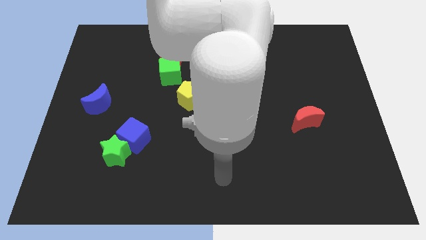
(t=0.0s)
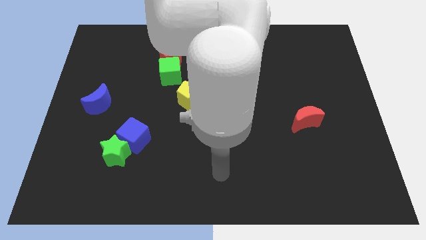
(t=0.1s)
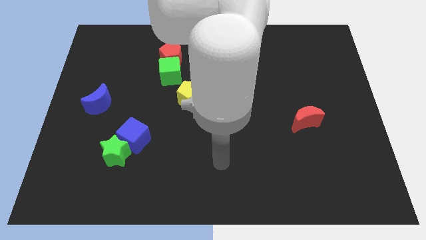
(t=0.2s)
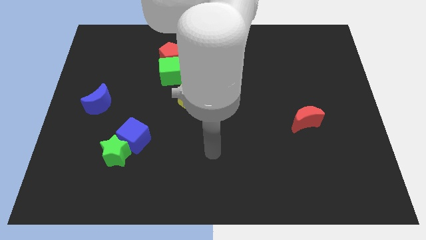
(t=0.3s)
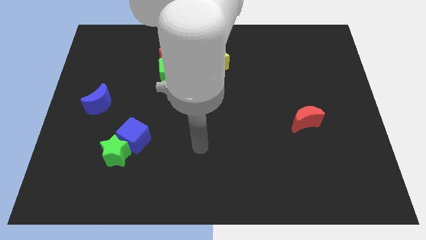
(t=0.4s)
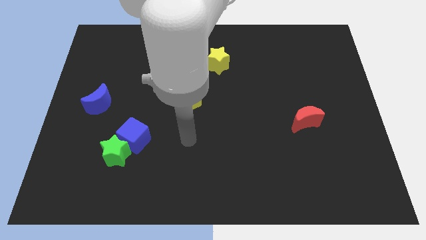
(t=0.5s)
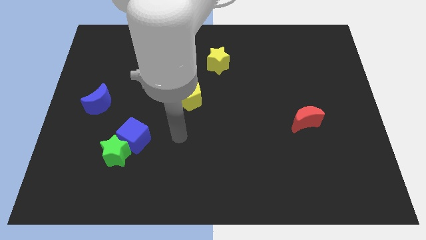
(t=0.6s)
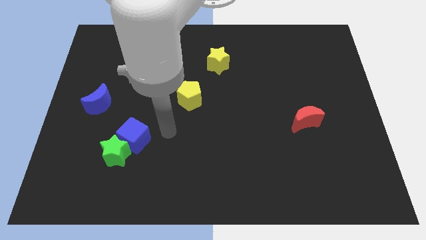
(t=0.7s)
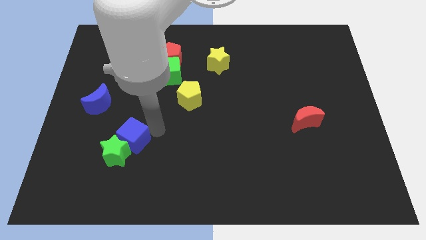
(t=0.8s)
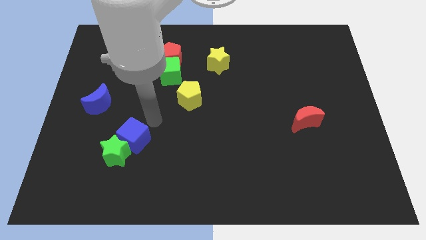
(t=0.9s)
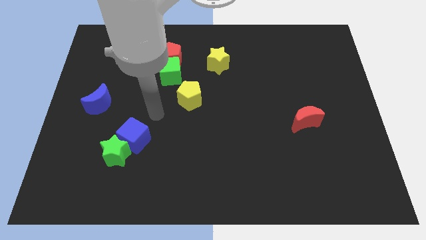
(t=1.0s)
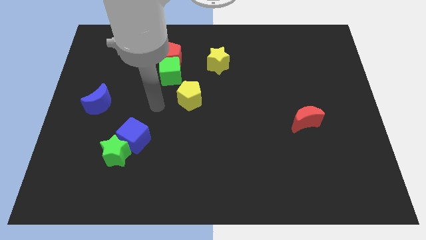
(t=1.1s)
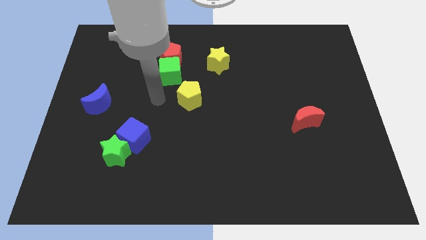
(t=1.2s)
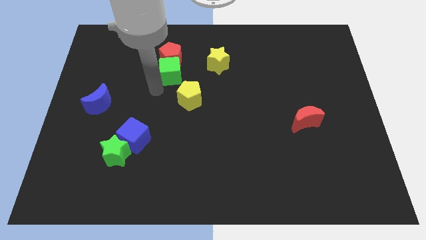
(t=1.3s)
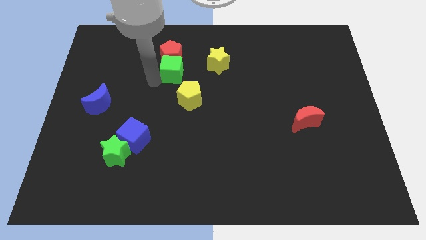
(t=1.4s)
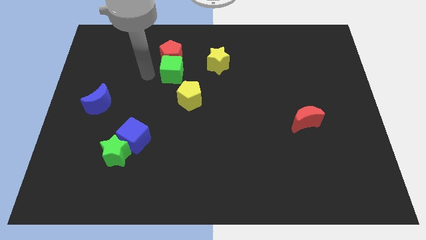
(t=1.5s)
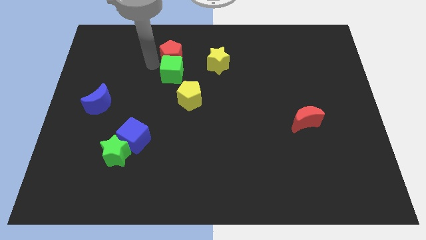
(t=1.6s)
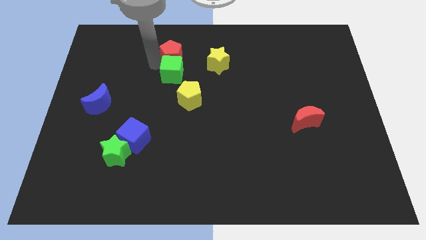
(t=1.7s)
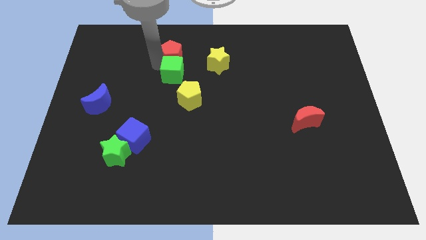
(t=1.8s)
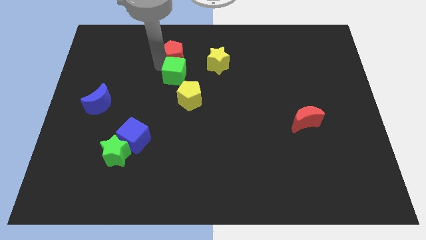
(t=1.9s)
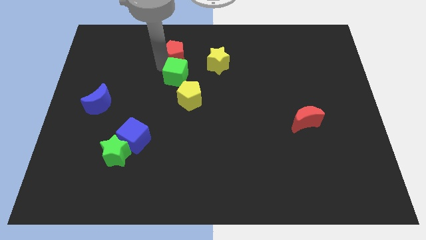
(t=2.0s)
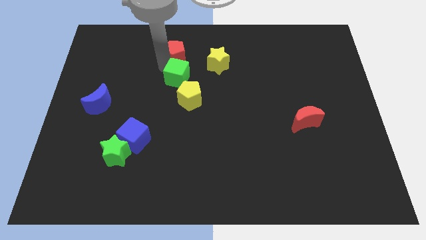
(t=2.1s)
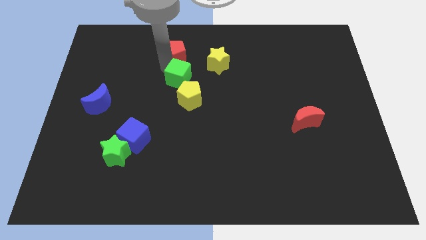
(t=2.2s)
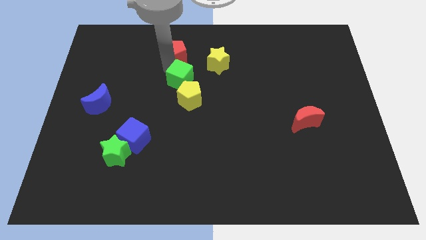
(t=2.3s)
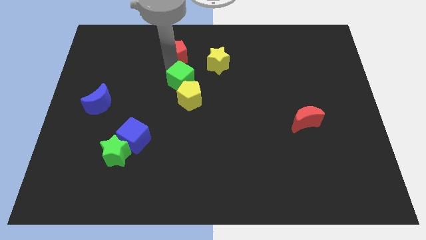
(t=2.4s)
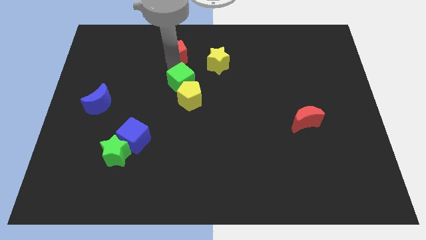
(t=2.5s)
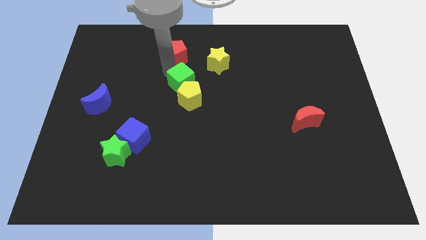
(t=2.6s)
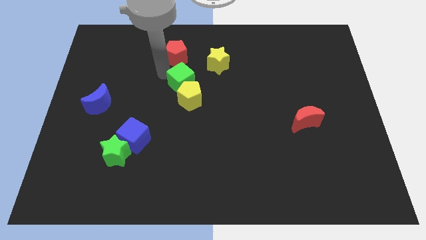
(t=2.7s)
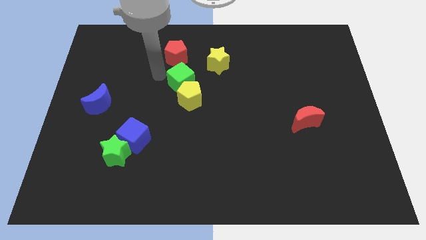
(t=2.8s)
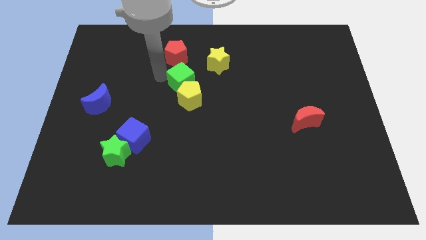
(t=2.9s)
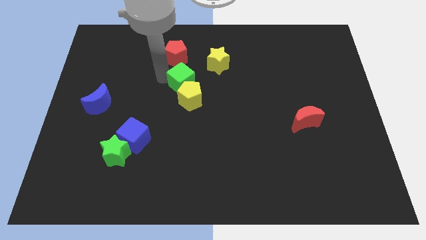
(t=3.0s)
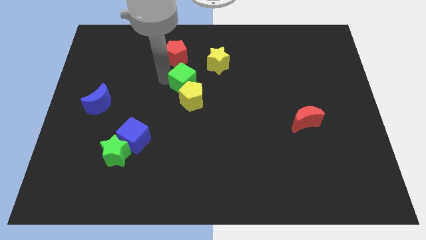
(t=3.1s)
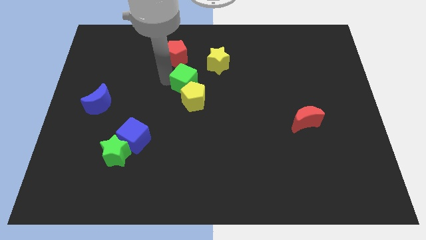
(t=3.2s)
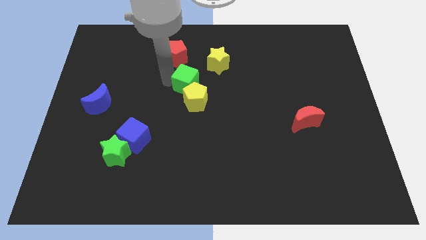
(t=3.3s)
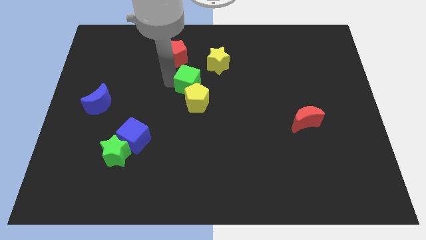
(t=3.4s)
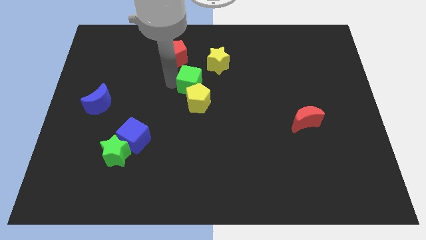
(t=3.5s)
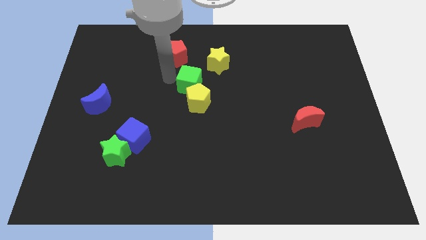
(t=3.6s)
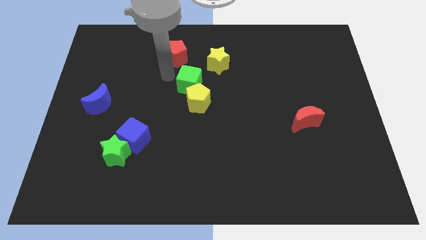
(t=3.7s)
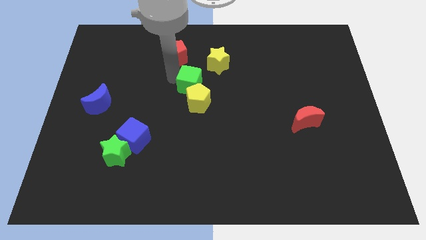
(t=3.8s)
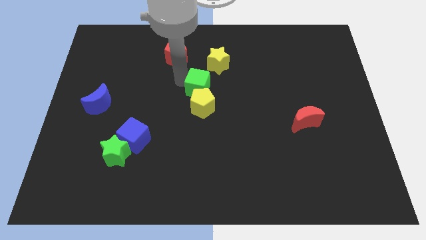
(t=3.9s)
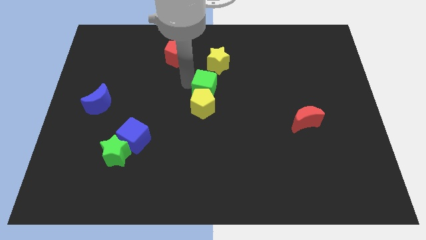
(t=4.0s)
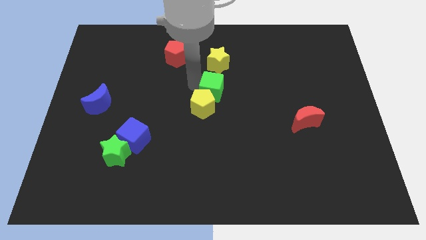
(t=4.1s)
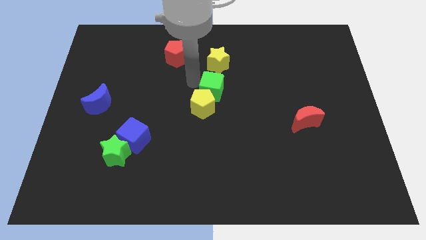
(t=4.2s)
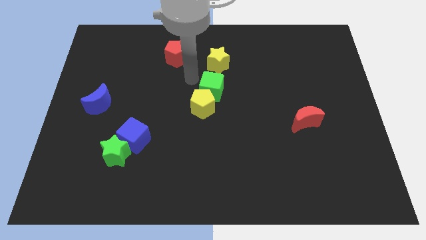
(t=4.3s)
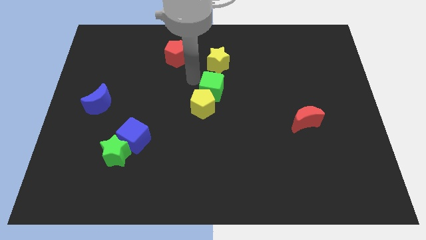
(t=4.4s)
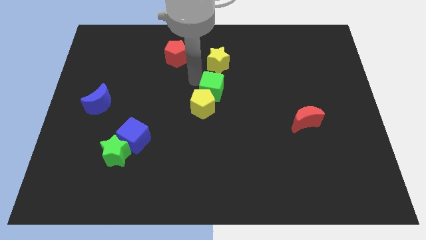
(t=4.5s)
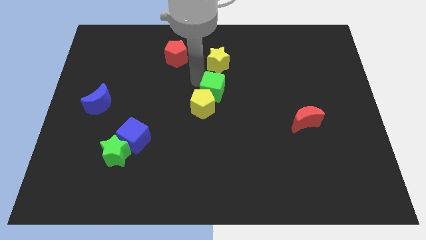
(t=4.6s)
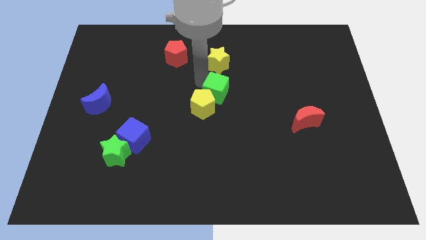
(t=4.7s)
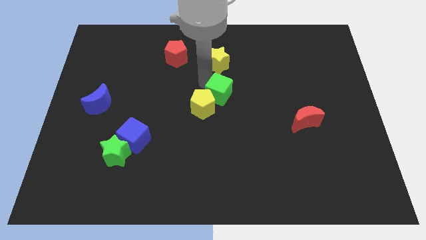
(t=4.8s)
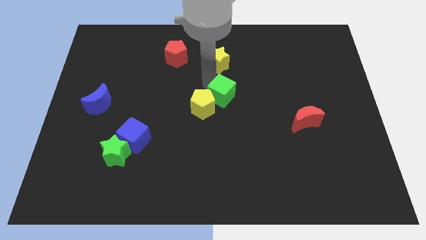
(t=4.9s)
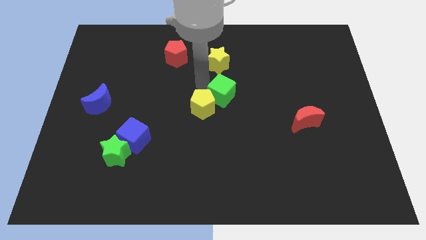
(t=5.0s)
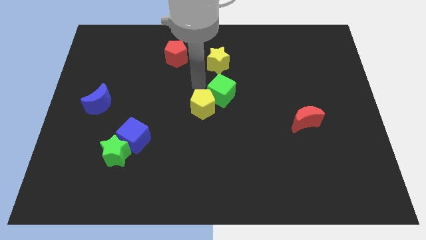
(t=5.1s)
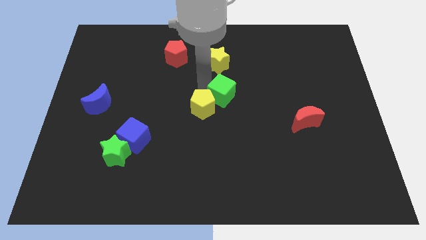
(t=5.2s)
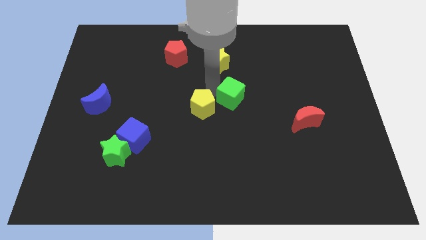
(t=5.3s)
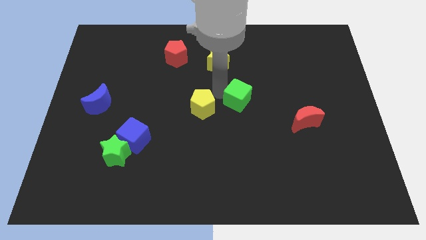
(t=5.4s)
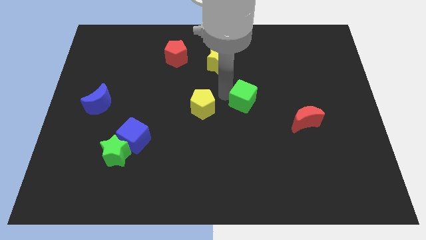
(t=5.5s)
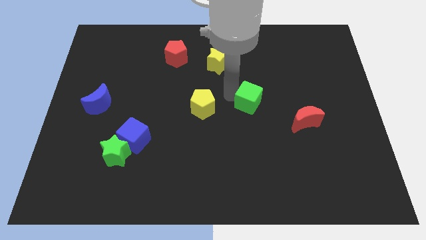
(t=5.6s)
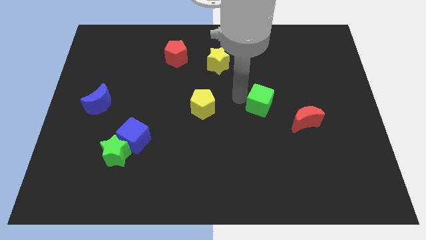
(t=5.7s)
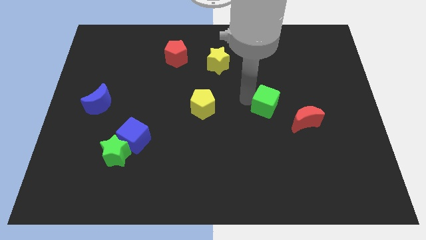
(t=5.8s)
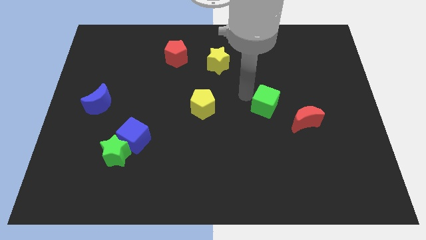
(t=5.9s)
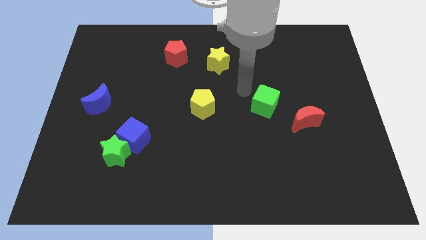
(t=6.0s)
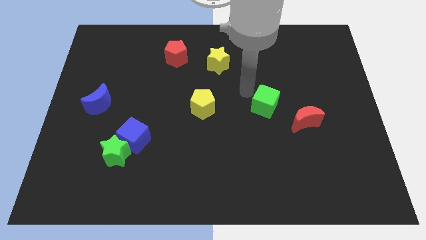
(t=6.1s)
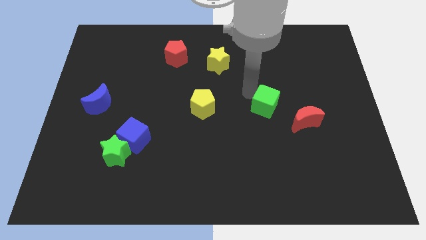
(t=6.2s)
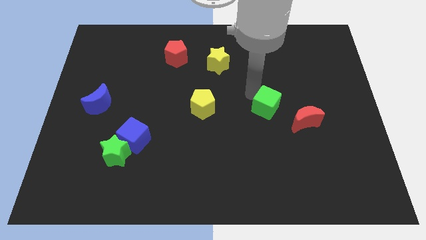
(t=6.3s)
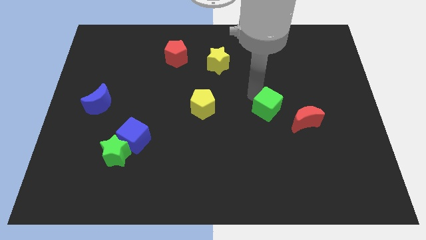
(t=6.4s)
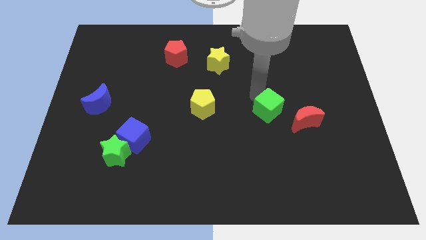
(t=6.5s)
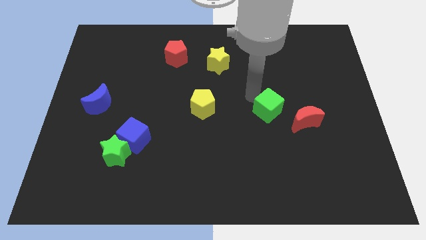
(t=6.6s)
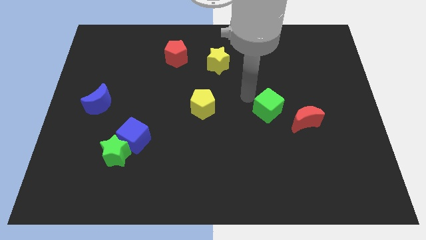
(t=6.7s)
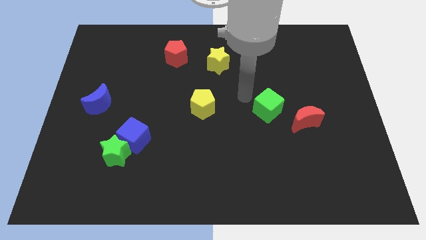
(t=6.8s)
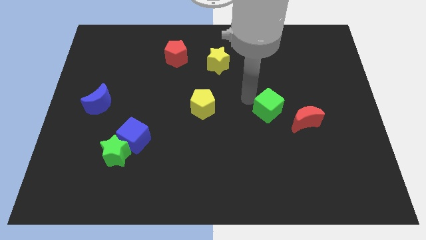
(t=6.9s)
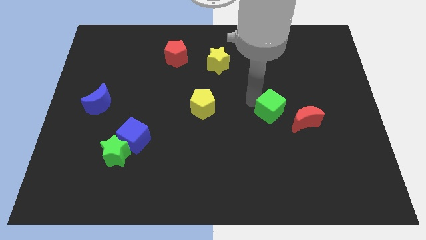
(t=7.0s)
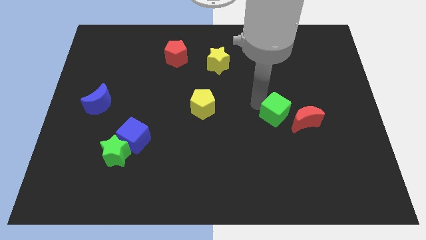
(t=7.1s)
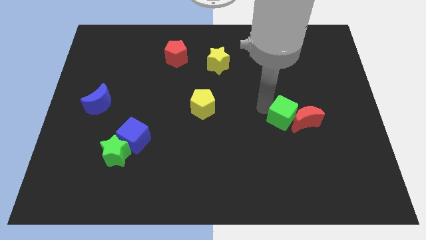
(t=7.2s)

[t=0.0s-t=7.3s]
push the green cube close to the red moon
